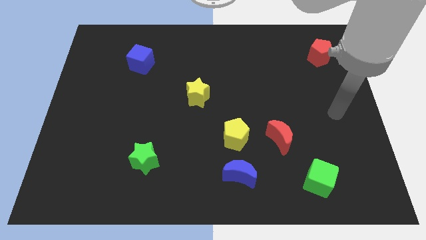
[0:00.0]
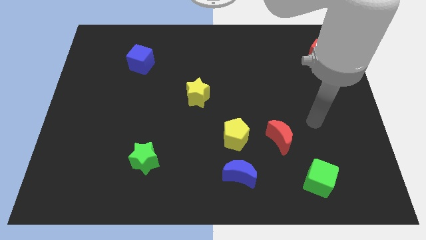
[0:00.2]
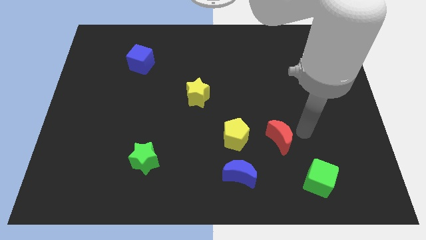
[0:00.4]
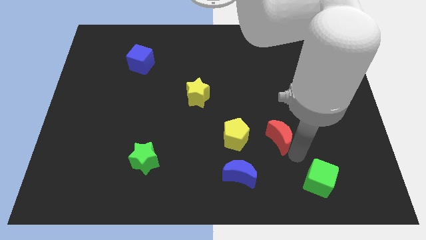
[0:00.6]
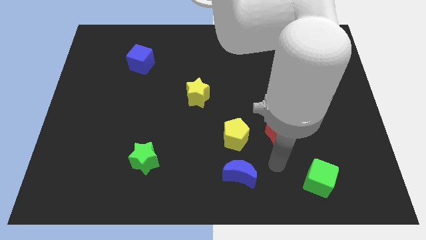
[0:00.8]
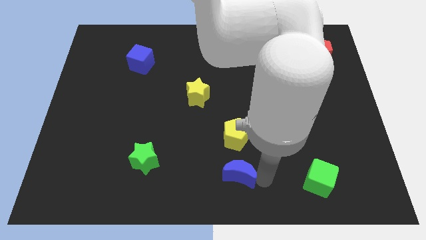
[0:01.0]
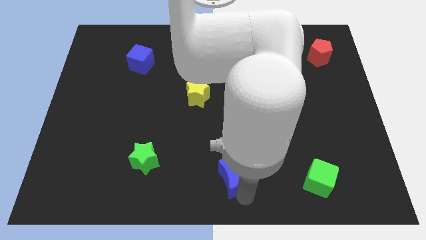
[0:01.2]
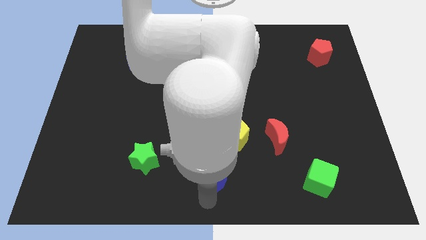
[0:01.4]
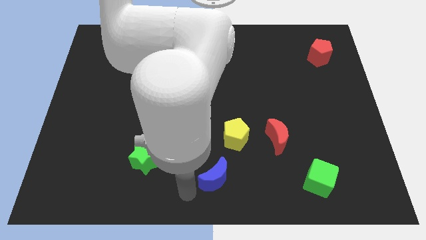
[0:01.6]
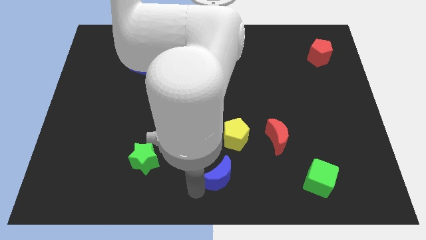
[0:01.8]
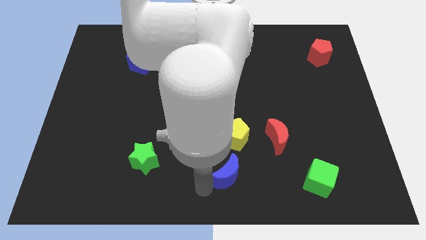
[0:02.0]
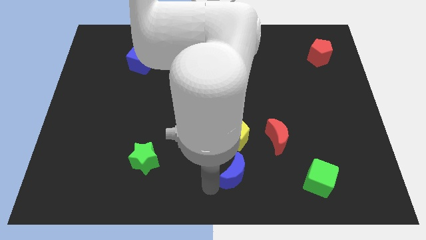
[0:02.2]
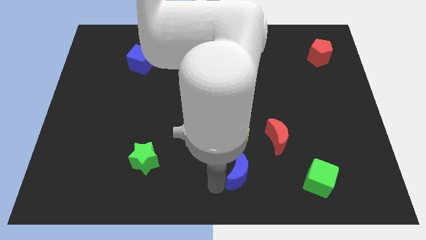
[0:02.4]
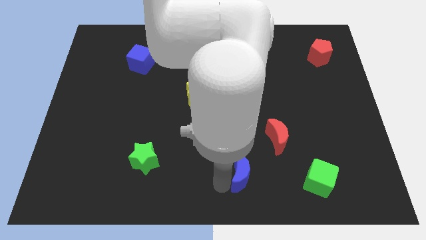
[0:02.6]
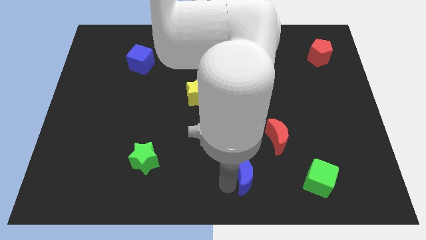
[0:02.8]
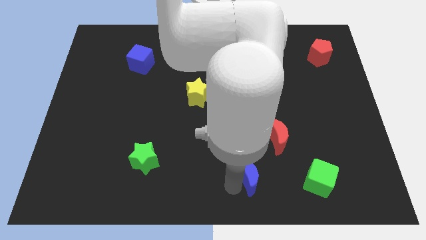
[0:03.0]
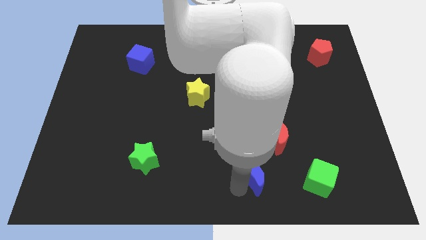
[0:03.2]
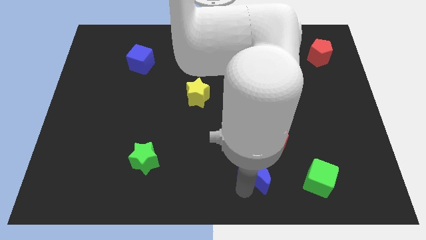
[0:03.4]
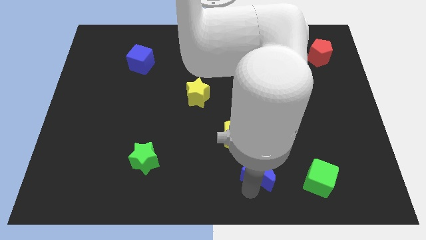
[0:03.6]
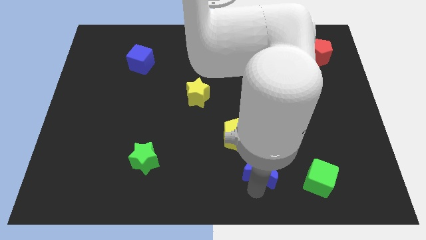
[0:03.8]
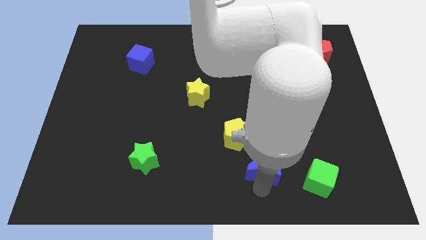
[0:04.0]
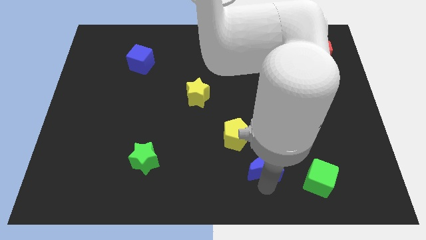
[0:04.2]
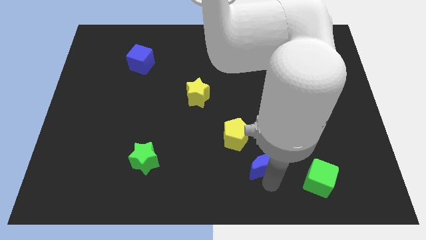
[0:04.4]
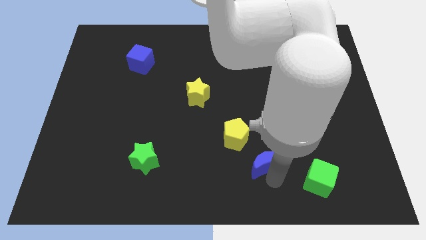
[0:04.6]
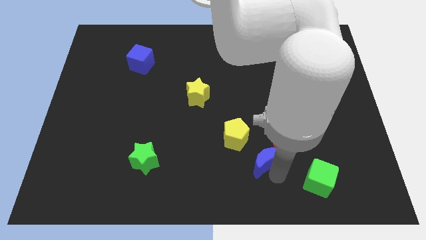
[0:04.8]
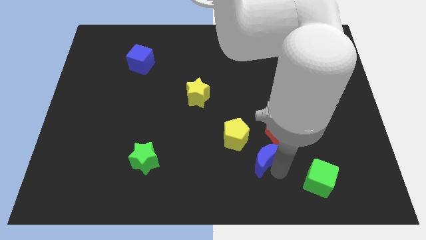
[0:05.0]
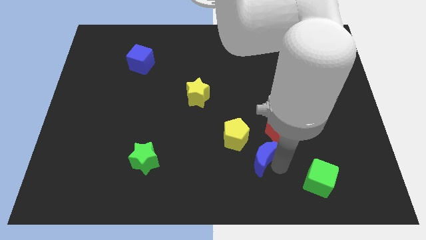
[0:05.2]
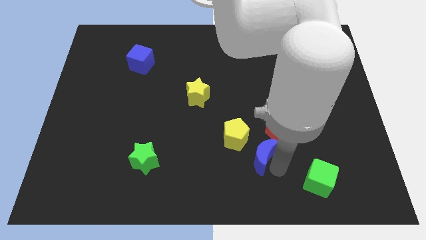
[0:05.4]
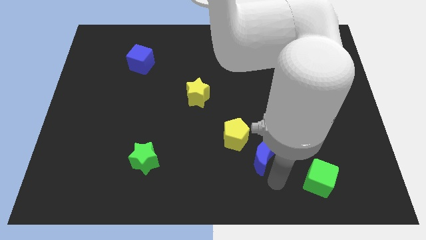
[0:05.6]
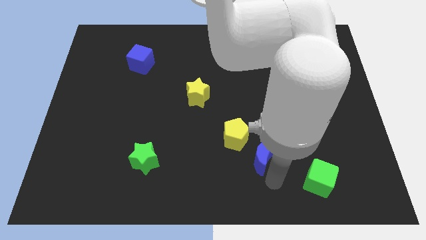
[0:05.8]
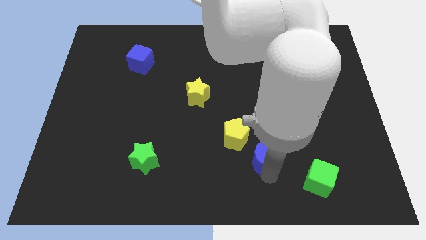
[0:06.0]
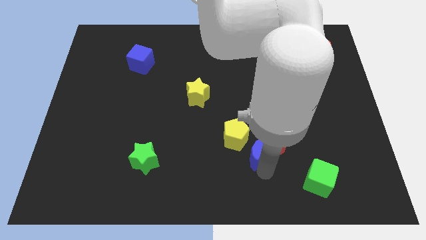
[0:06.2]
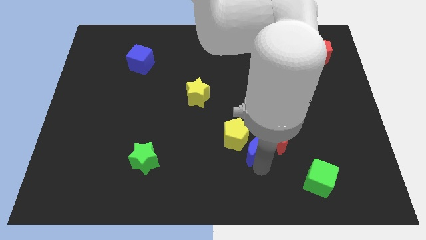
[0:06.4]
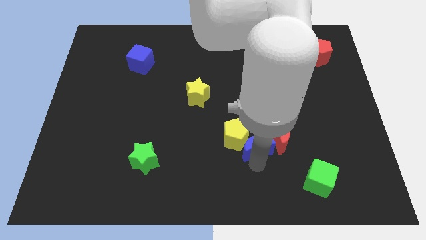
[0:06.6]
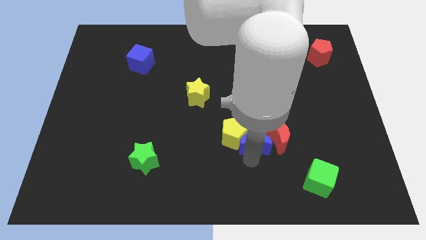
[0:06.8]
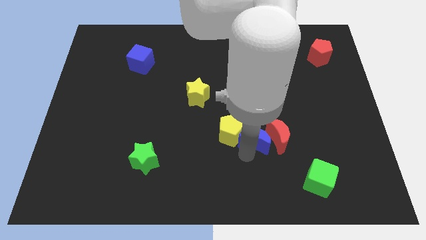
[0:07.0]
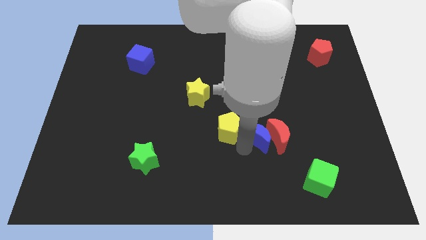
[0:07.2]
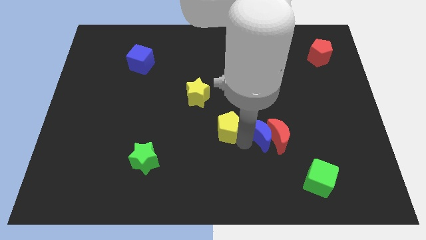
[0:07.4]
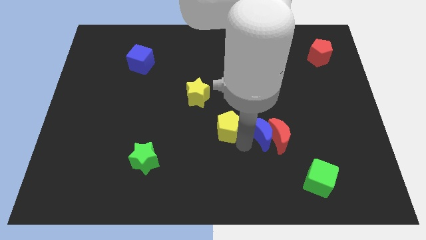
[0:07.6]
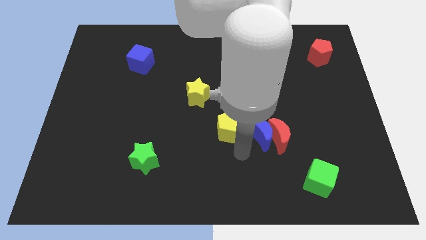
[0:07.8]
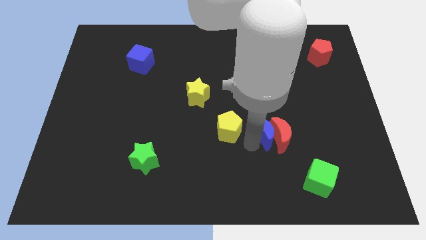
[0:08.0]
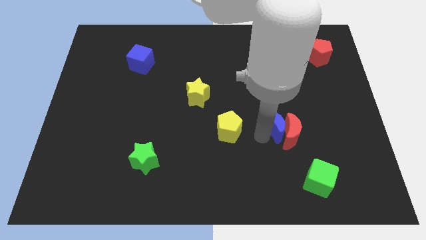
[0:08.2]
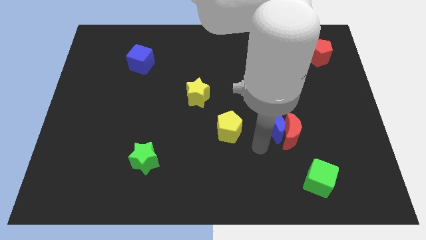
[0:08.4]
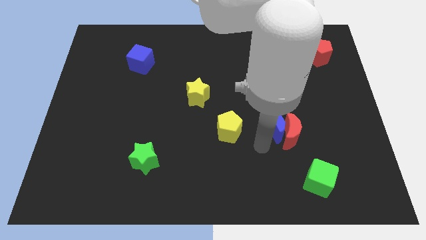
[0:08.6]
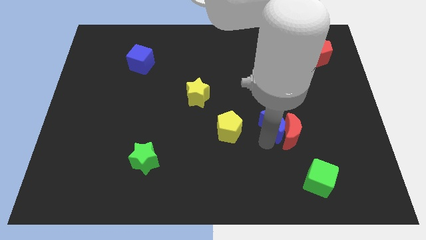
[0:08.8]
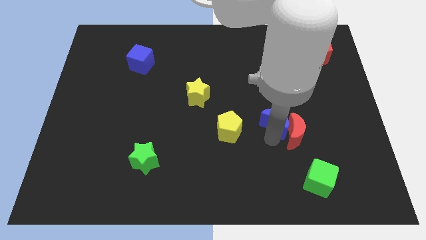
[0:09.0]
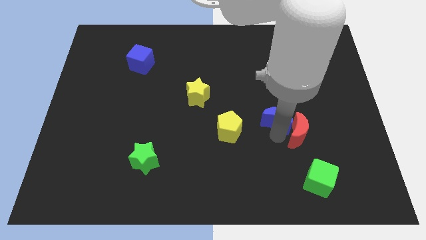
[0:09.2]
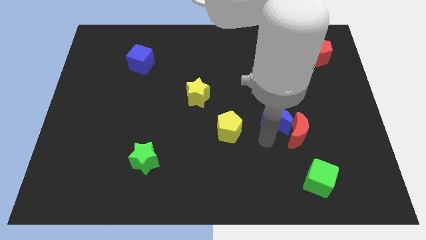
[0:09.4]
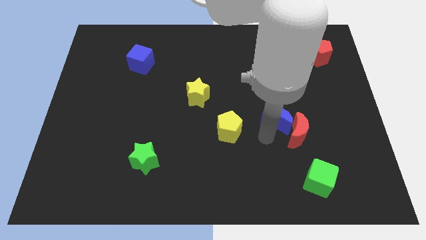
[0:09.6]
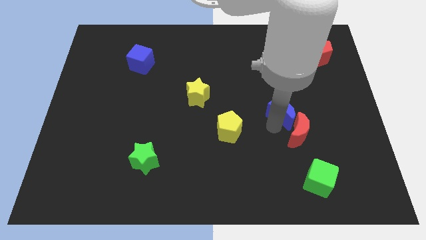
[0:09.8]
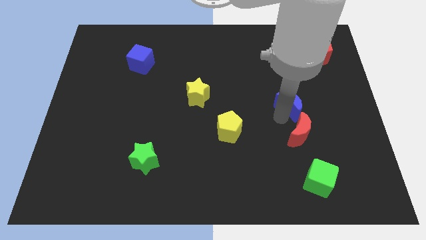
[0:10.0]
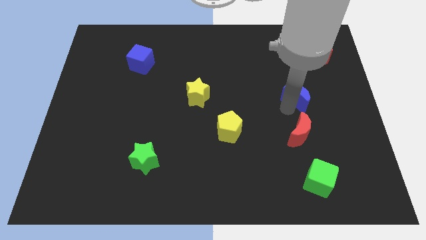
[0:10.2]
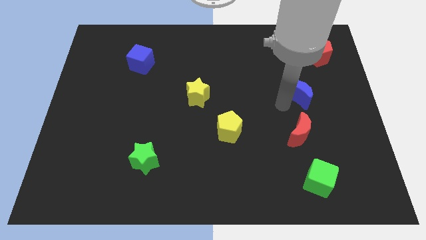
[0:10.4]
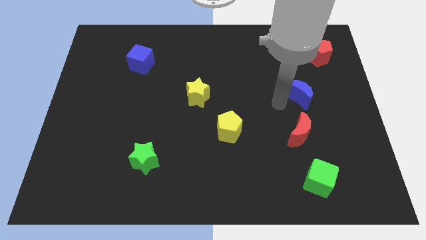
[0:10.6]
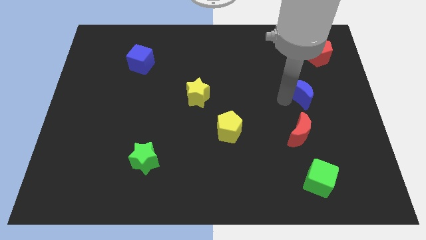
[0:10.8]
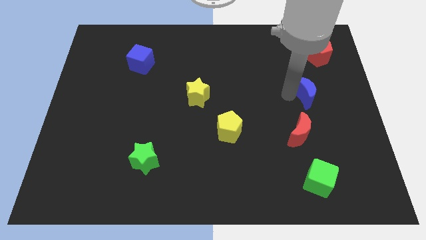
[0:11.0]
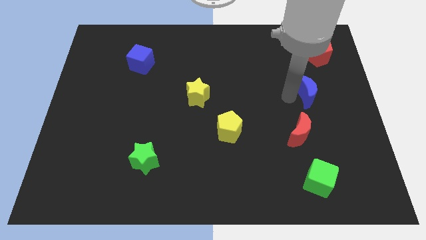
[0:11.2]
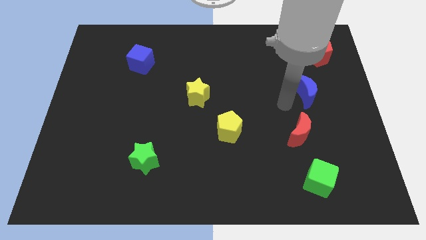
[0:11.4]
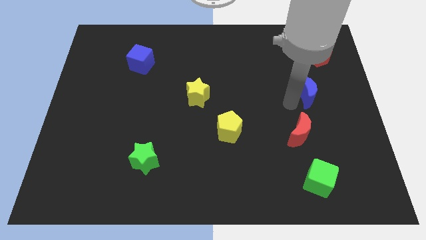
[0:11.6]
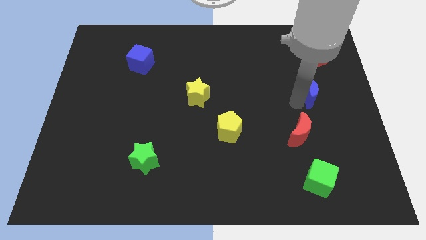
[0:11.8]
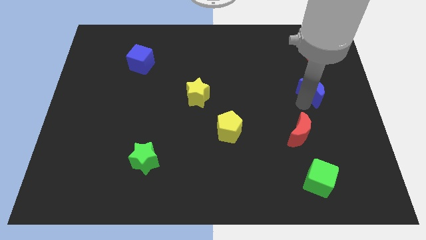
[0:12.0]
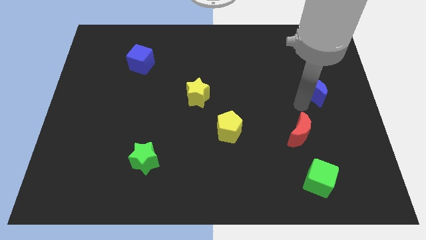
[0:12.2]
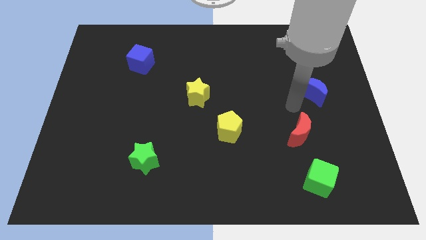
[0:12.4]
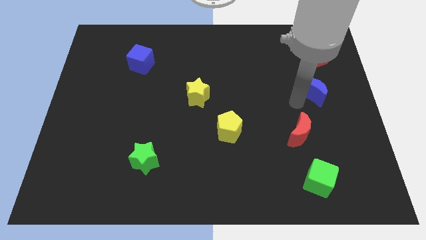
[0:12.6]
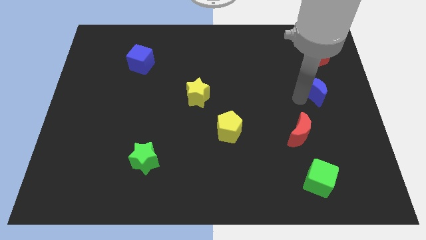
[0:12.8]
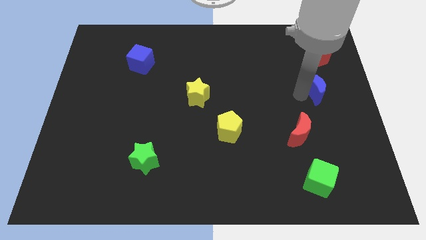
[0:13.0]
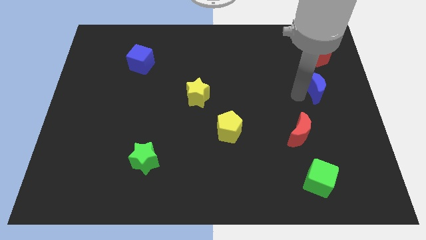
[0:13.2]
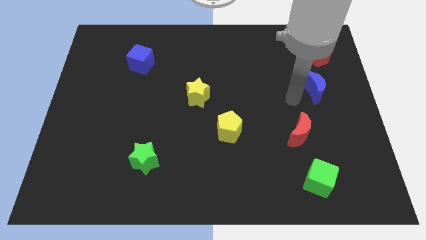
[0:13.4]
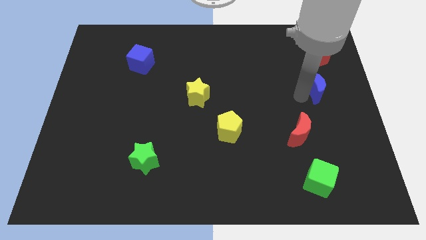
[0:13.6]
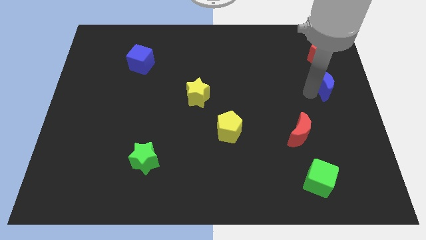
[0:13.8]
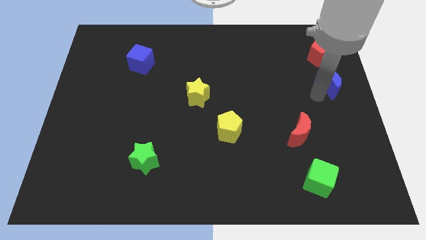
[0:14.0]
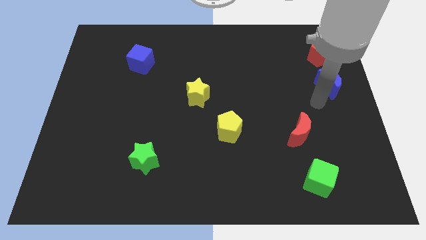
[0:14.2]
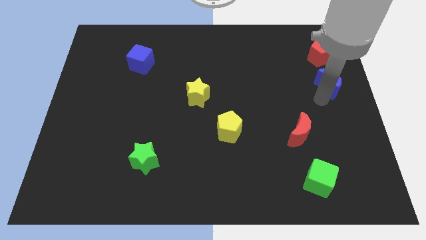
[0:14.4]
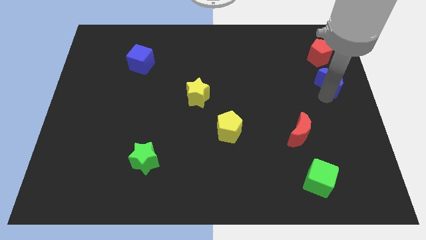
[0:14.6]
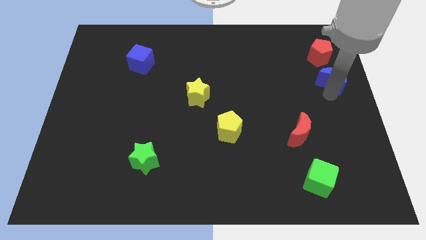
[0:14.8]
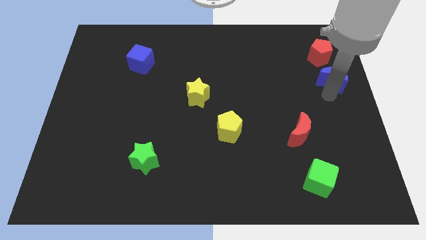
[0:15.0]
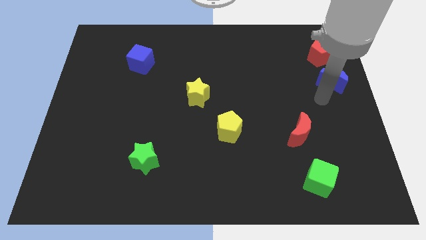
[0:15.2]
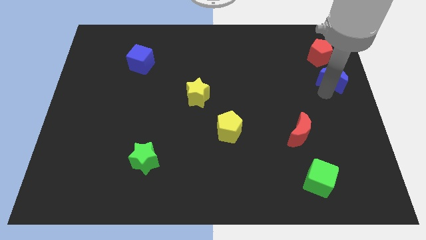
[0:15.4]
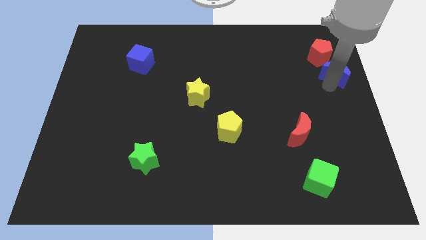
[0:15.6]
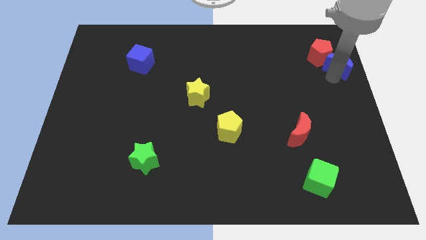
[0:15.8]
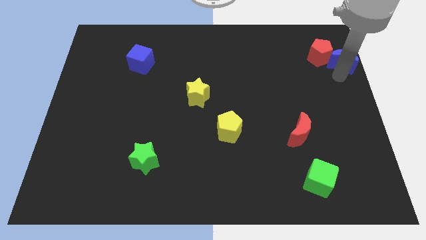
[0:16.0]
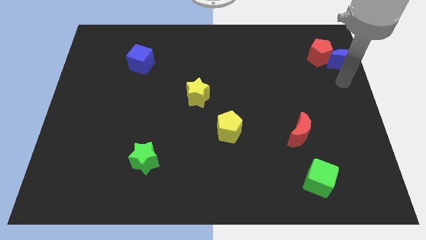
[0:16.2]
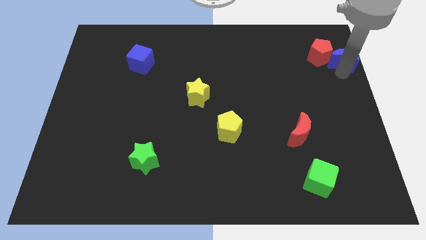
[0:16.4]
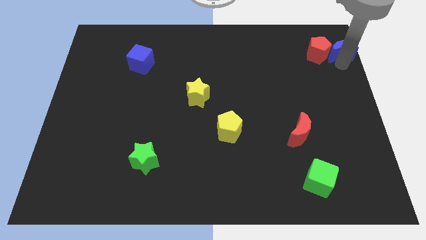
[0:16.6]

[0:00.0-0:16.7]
put the blue moon to the top right
